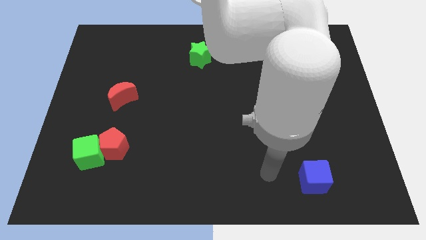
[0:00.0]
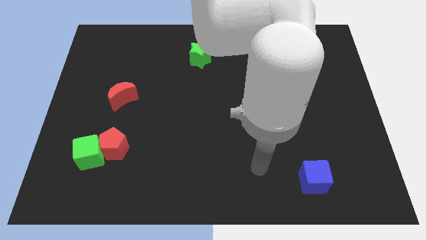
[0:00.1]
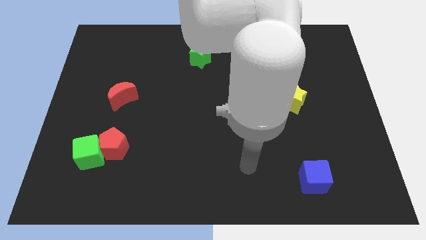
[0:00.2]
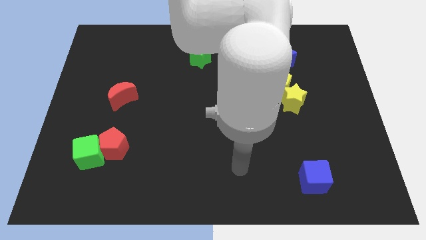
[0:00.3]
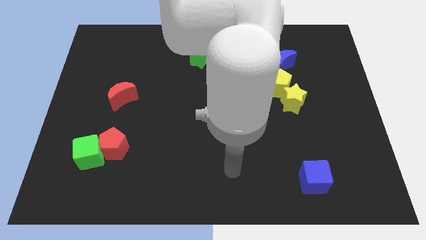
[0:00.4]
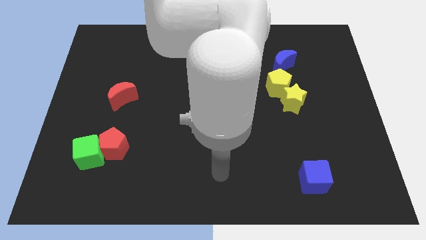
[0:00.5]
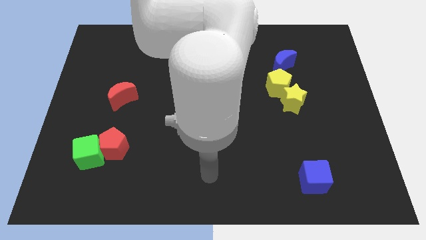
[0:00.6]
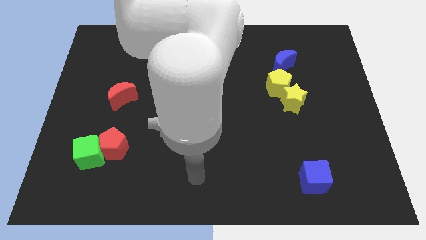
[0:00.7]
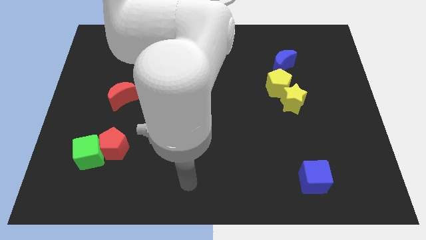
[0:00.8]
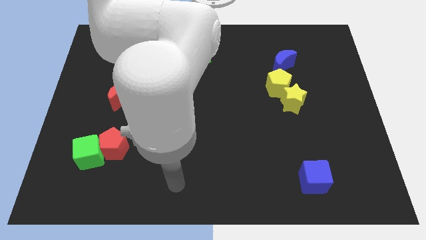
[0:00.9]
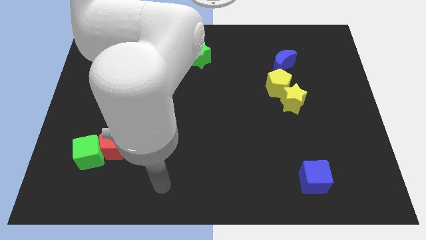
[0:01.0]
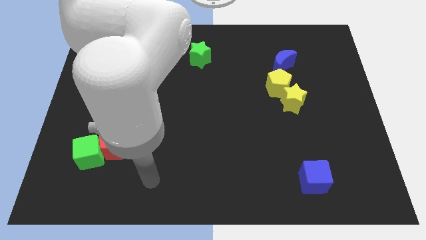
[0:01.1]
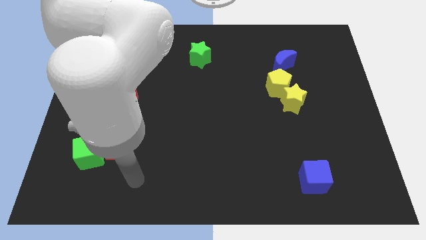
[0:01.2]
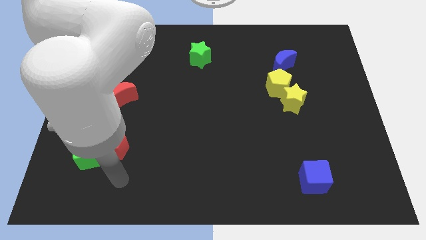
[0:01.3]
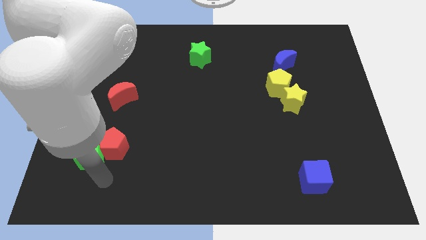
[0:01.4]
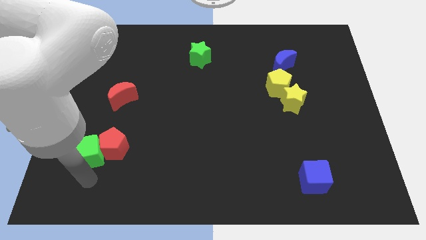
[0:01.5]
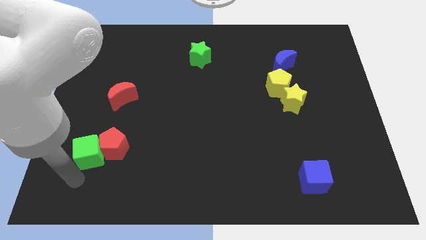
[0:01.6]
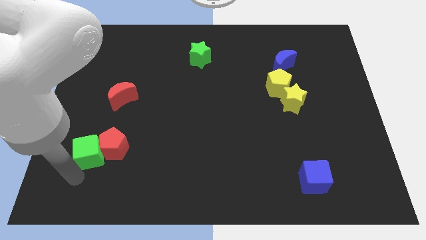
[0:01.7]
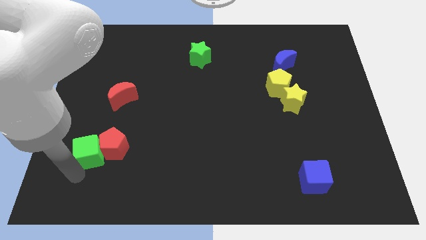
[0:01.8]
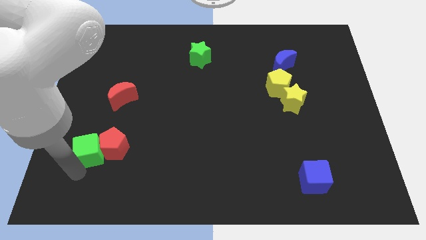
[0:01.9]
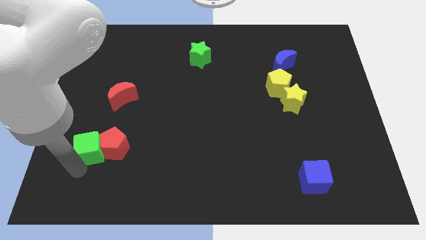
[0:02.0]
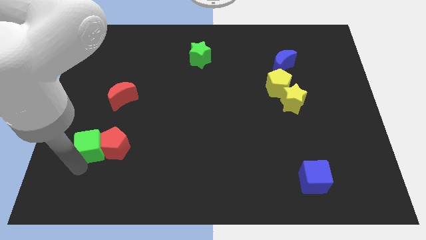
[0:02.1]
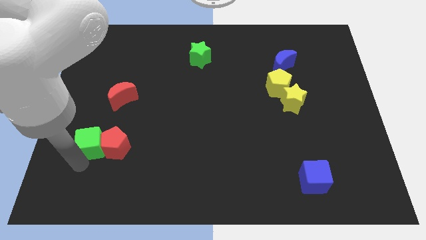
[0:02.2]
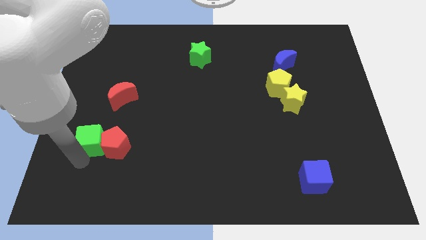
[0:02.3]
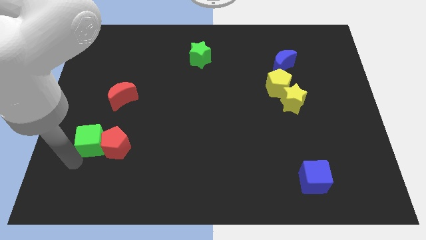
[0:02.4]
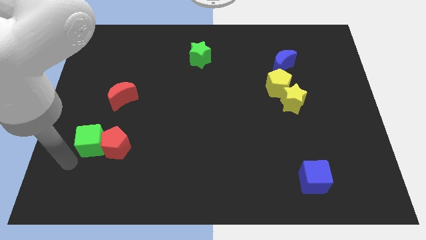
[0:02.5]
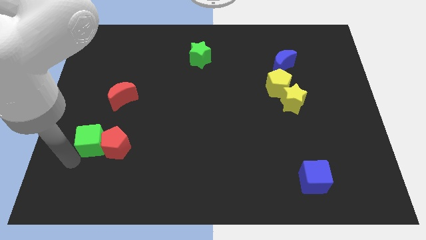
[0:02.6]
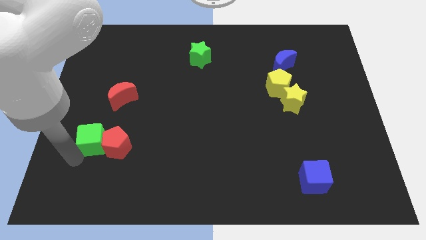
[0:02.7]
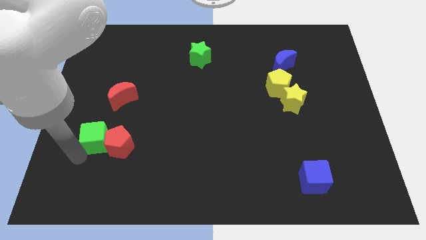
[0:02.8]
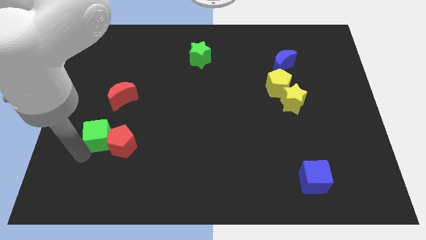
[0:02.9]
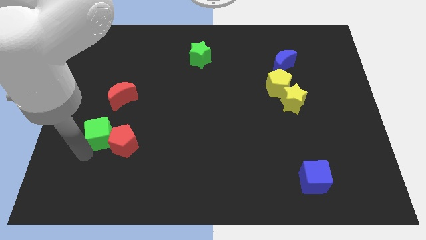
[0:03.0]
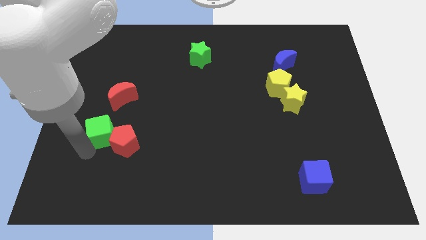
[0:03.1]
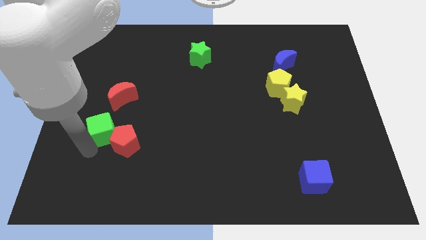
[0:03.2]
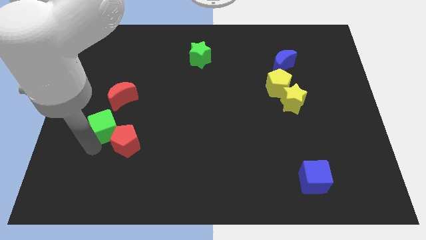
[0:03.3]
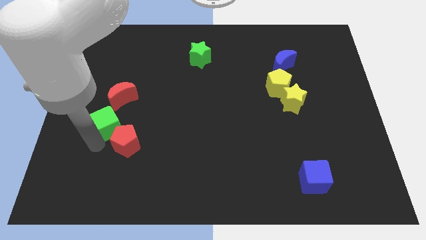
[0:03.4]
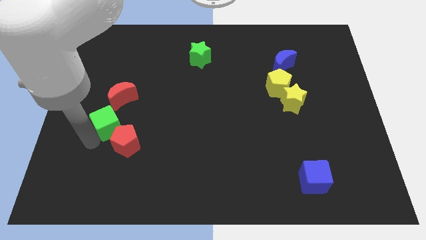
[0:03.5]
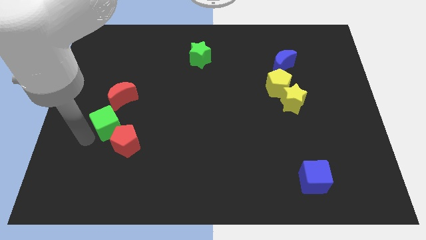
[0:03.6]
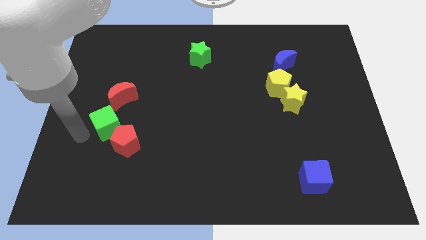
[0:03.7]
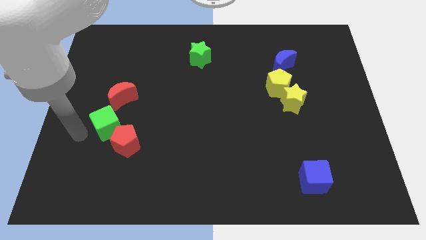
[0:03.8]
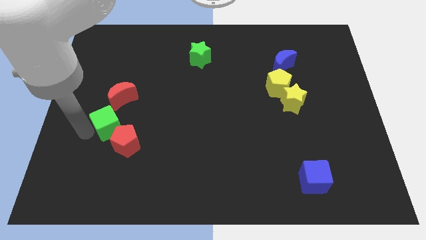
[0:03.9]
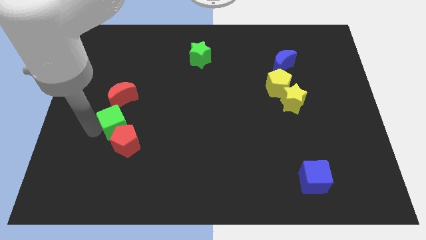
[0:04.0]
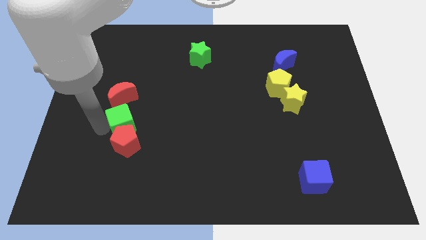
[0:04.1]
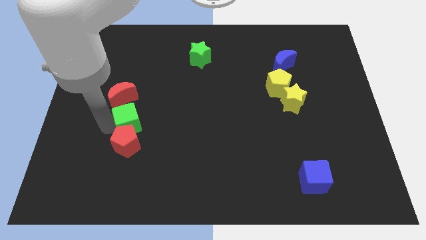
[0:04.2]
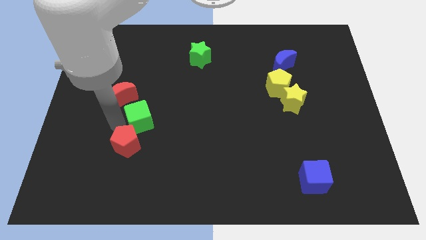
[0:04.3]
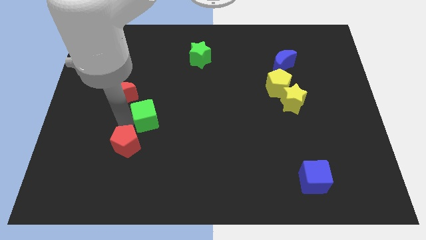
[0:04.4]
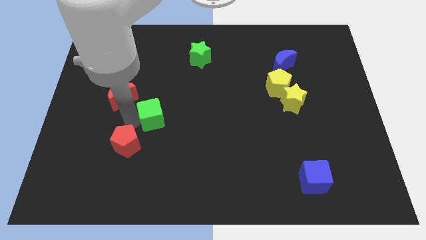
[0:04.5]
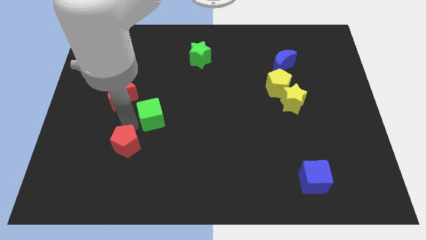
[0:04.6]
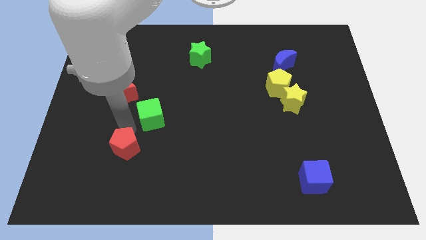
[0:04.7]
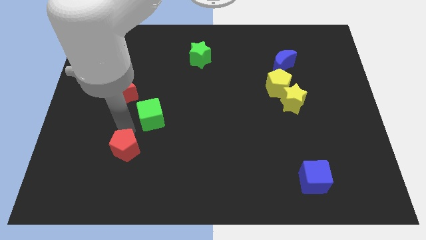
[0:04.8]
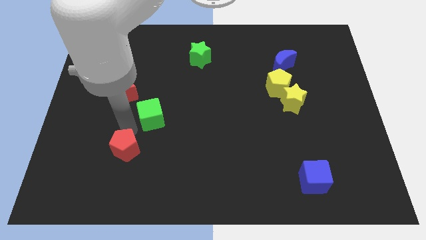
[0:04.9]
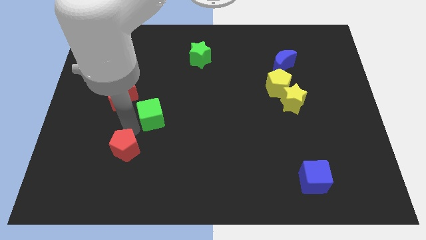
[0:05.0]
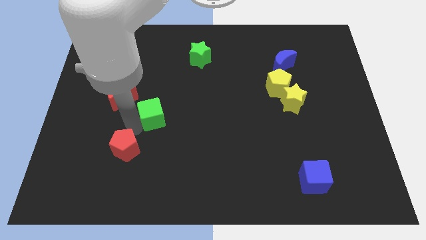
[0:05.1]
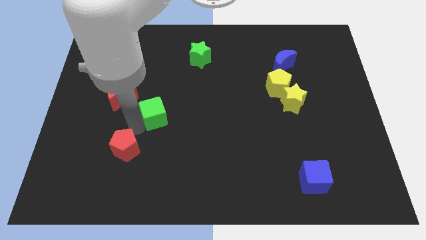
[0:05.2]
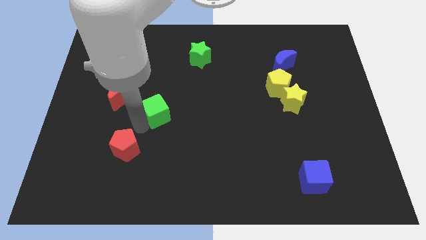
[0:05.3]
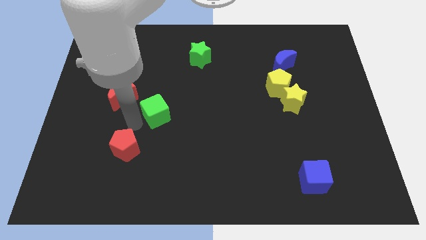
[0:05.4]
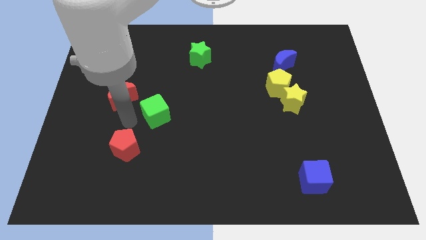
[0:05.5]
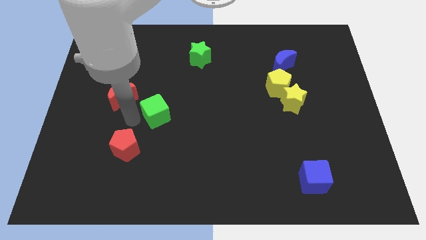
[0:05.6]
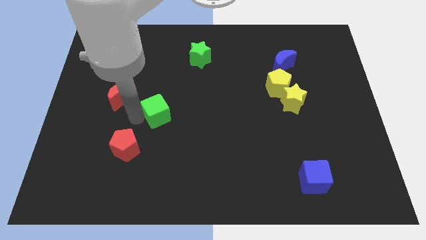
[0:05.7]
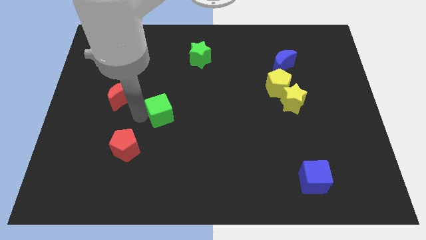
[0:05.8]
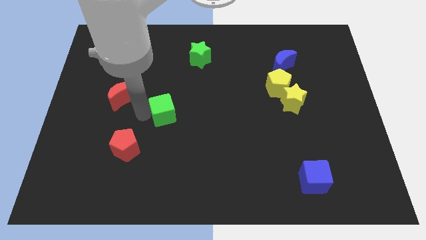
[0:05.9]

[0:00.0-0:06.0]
put the green cube to the center of the board

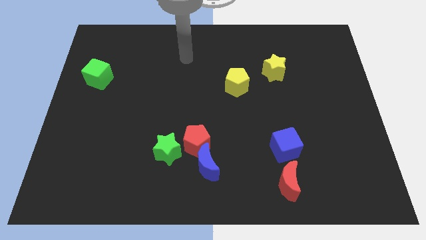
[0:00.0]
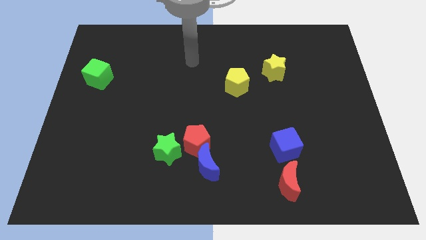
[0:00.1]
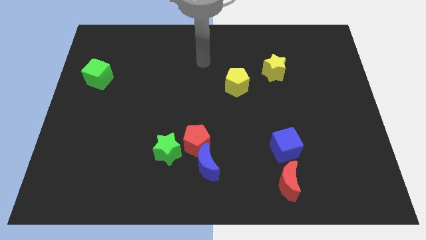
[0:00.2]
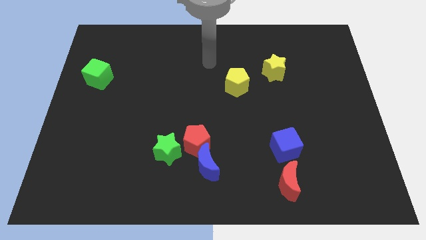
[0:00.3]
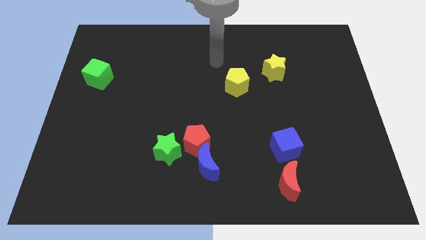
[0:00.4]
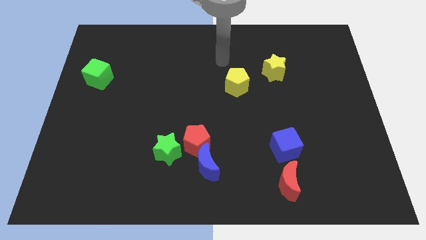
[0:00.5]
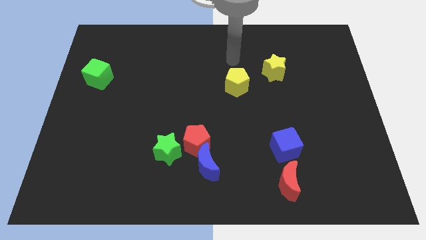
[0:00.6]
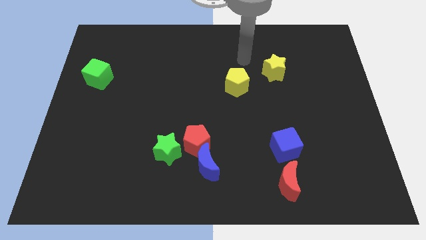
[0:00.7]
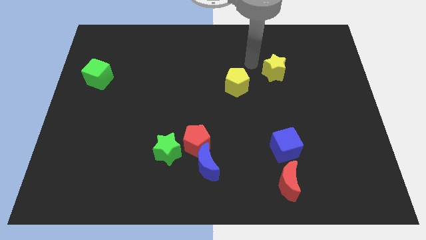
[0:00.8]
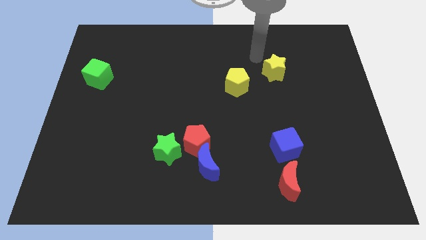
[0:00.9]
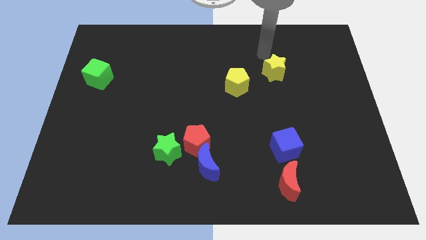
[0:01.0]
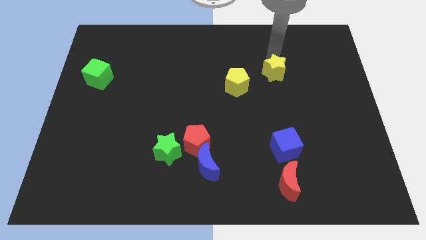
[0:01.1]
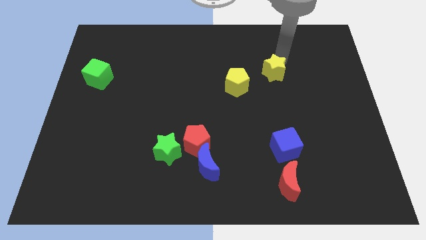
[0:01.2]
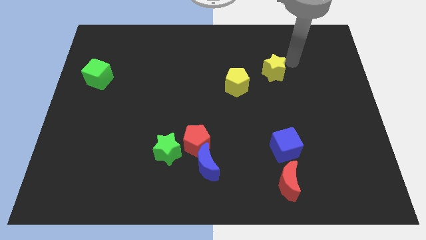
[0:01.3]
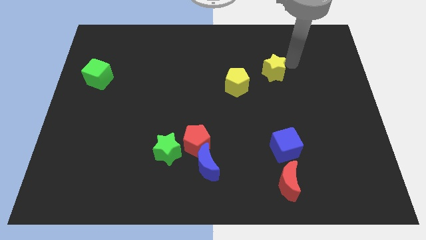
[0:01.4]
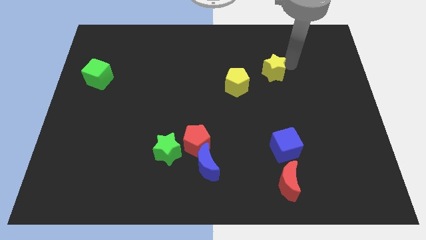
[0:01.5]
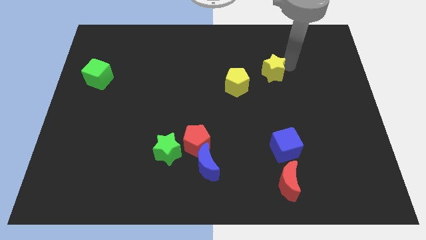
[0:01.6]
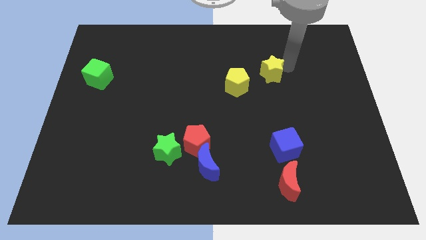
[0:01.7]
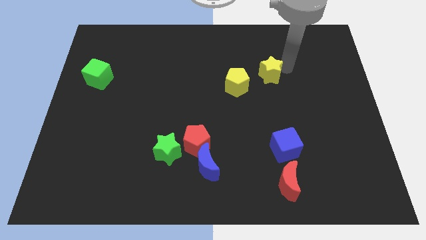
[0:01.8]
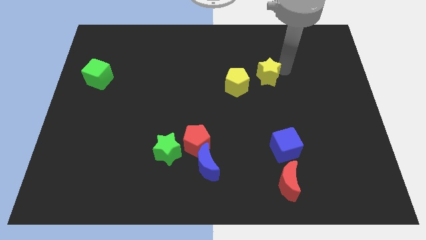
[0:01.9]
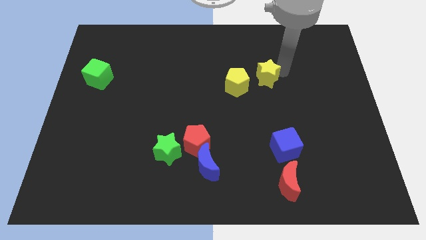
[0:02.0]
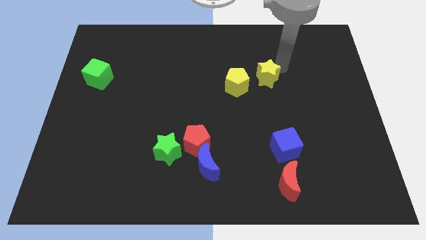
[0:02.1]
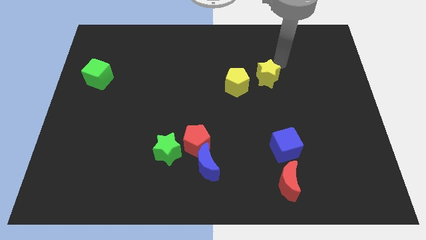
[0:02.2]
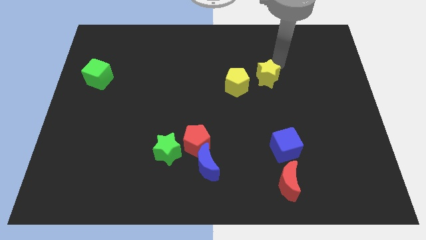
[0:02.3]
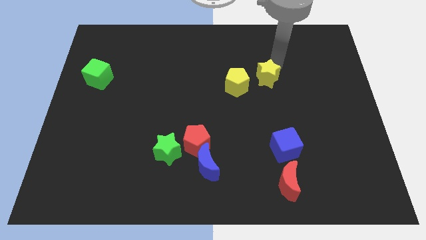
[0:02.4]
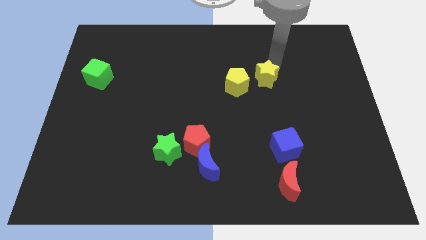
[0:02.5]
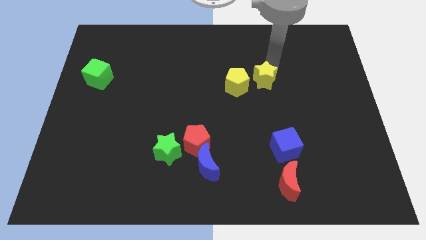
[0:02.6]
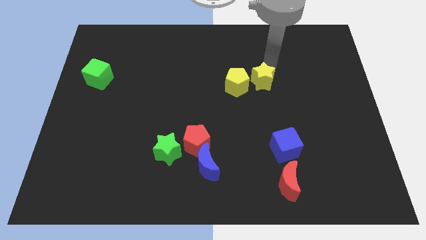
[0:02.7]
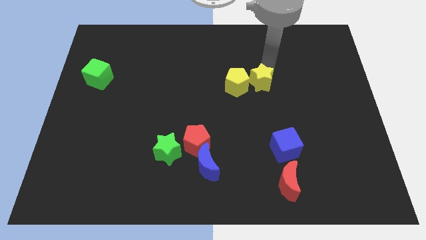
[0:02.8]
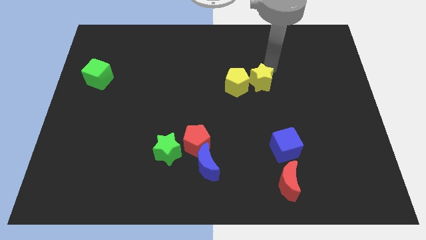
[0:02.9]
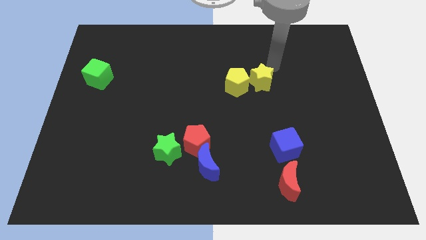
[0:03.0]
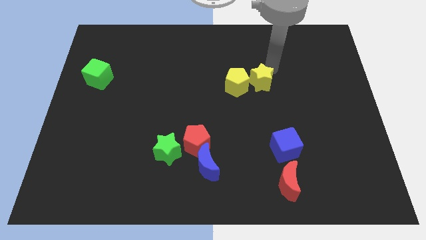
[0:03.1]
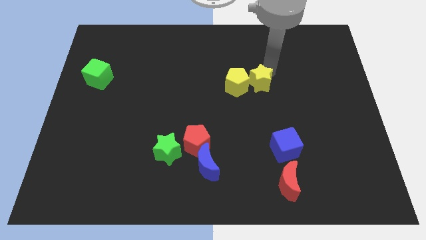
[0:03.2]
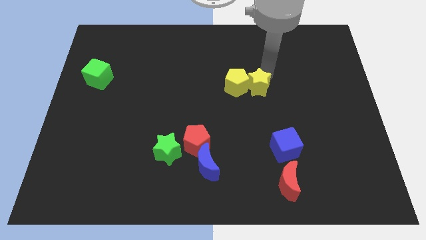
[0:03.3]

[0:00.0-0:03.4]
put the yellow star to the center of the board
